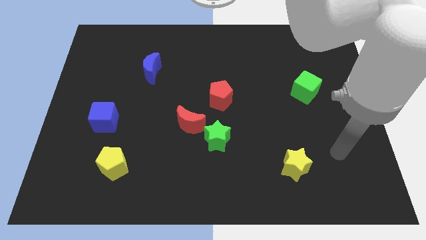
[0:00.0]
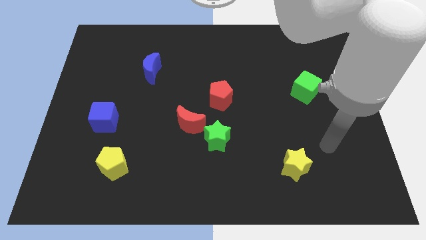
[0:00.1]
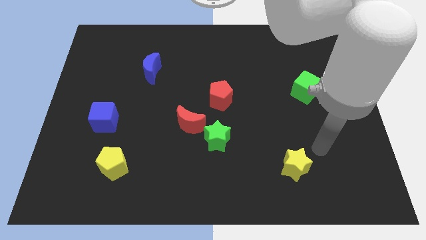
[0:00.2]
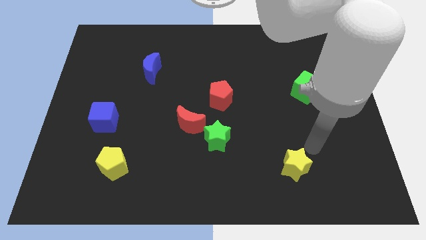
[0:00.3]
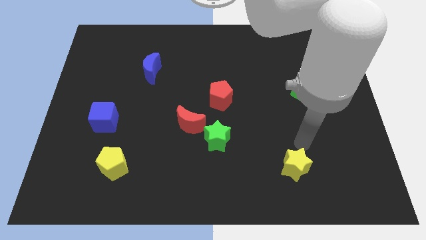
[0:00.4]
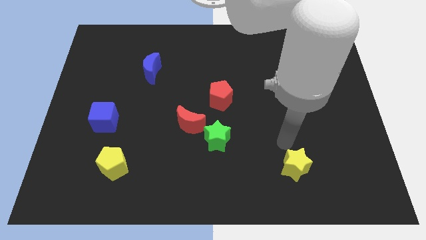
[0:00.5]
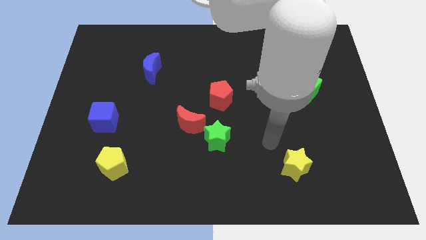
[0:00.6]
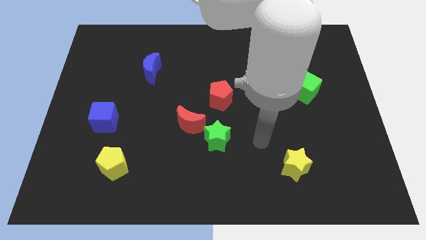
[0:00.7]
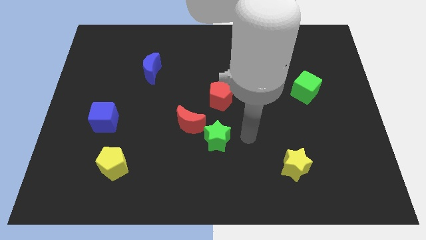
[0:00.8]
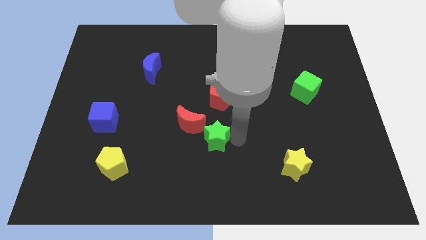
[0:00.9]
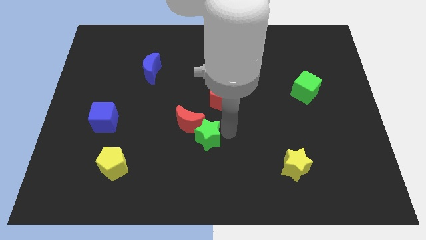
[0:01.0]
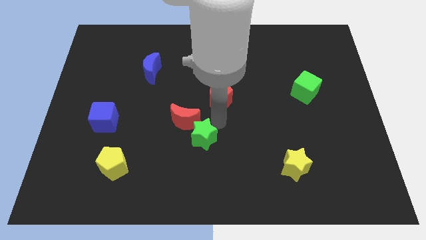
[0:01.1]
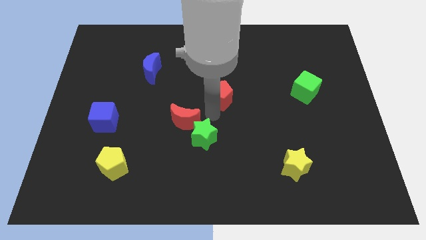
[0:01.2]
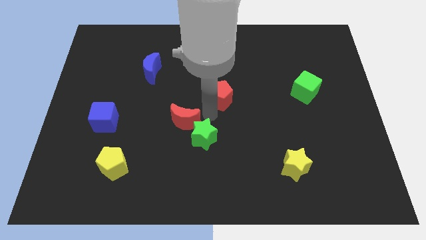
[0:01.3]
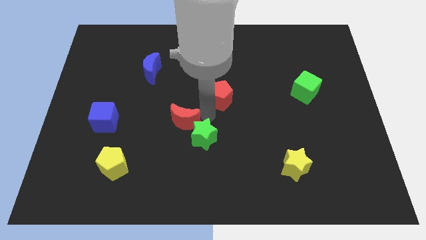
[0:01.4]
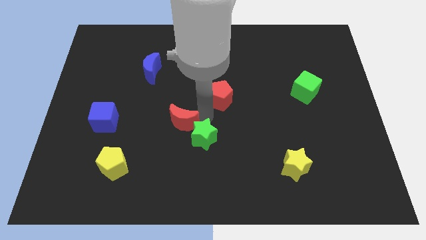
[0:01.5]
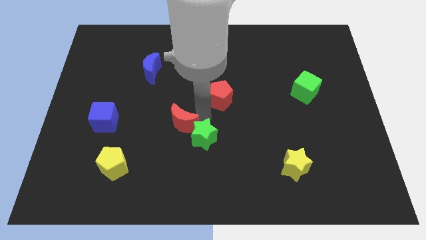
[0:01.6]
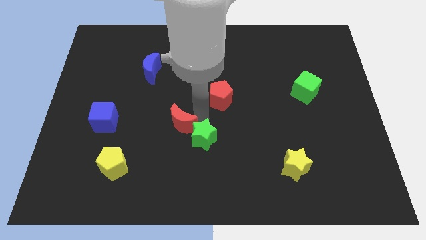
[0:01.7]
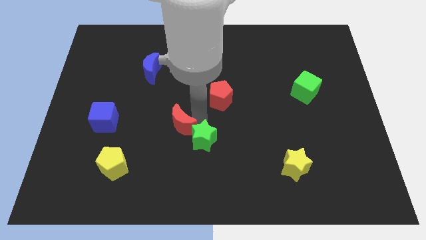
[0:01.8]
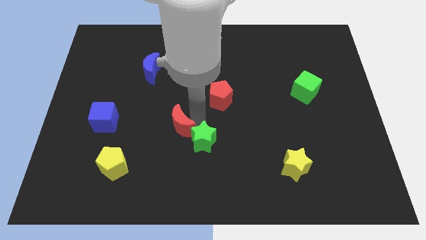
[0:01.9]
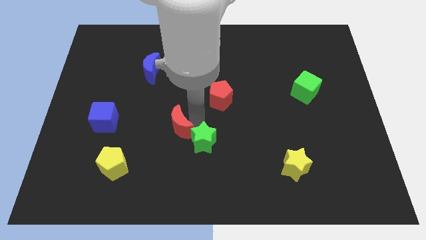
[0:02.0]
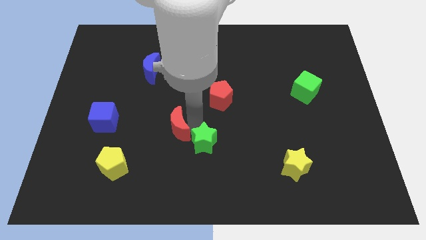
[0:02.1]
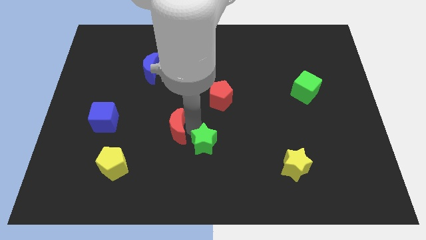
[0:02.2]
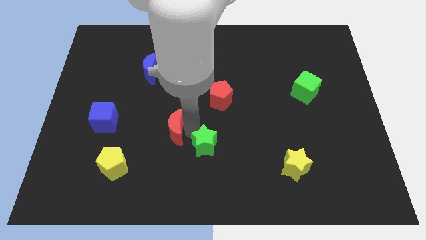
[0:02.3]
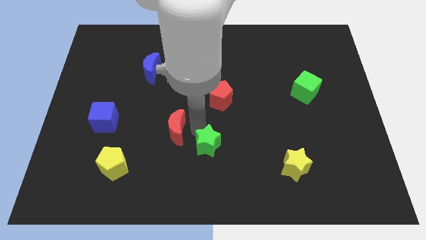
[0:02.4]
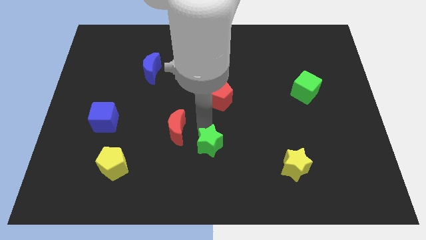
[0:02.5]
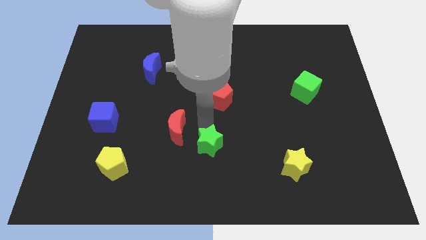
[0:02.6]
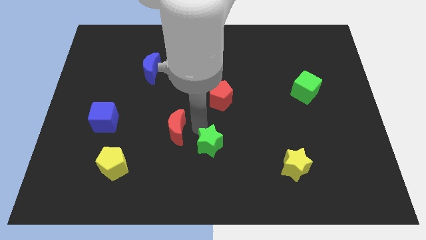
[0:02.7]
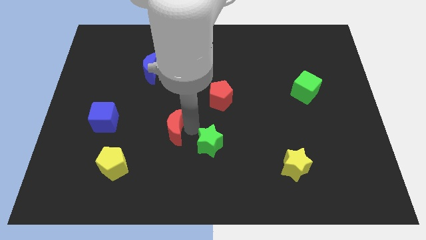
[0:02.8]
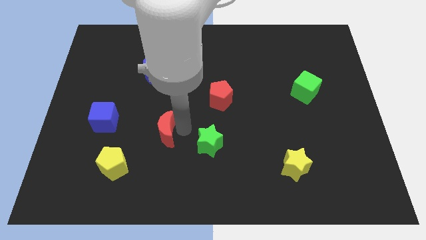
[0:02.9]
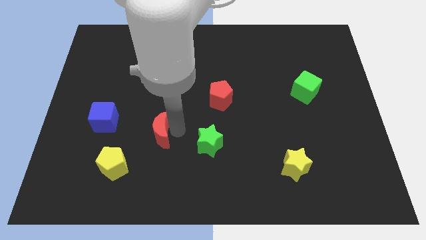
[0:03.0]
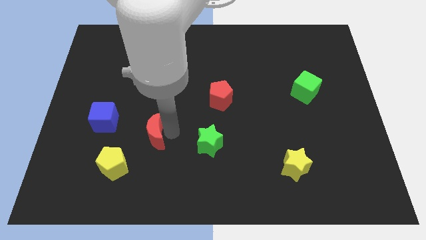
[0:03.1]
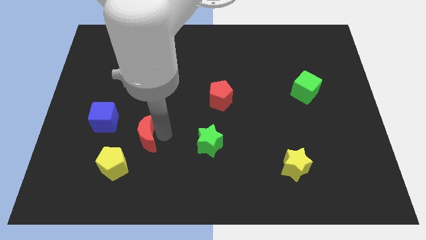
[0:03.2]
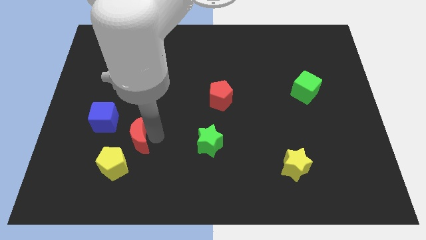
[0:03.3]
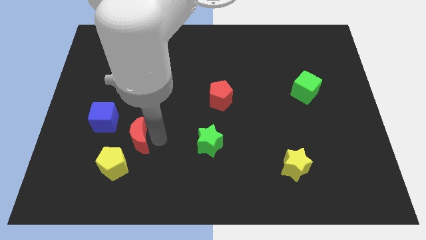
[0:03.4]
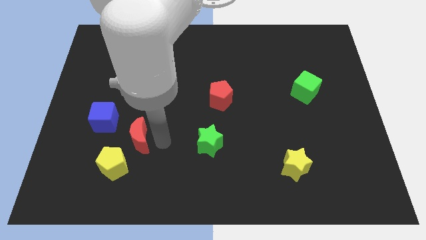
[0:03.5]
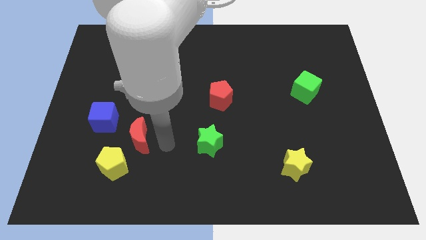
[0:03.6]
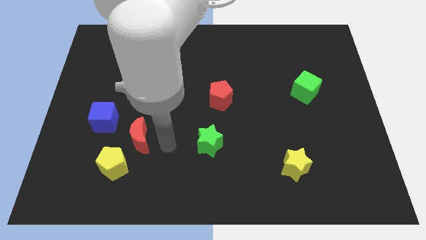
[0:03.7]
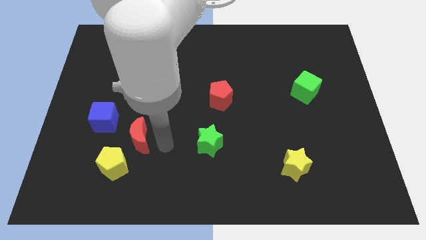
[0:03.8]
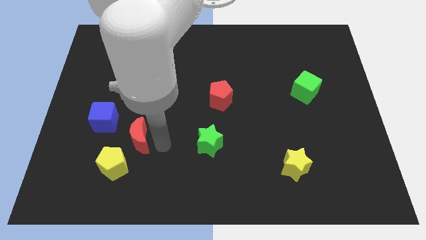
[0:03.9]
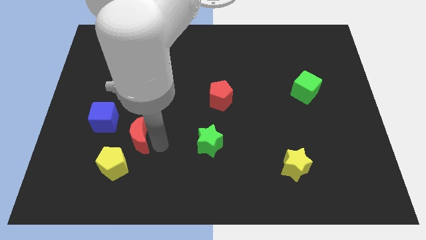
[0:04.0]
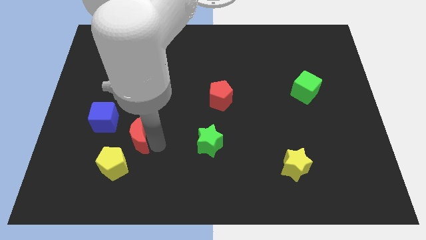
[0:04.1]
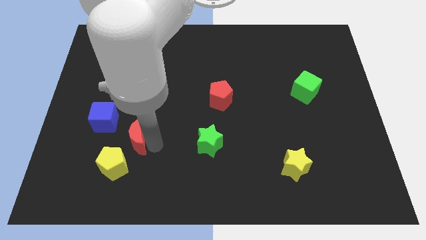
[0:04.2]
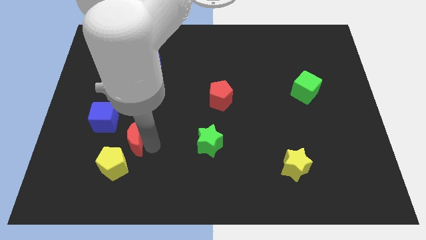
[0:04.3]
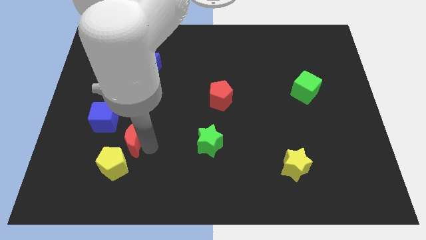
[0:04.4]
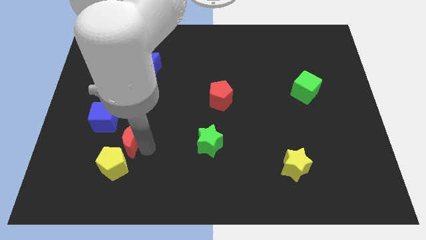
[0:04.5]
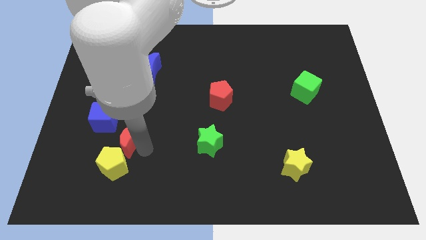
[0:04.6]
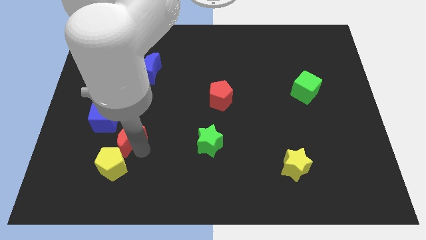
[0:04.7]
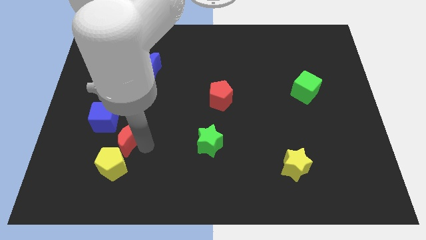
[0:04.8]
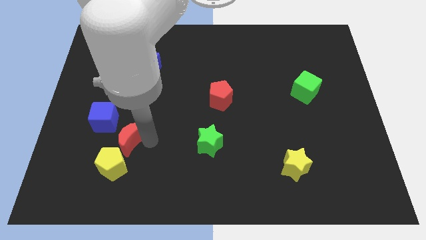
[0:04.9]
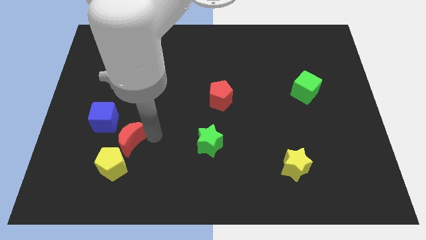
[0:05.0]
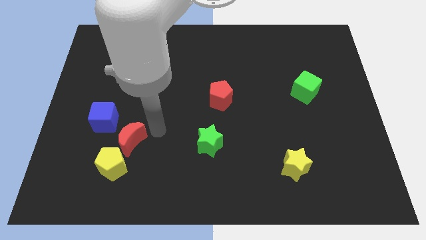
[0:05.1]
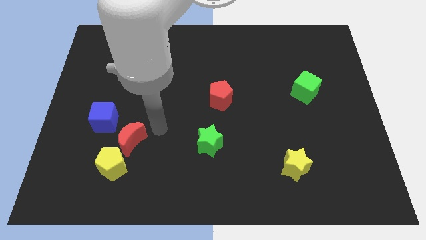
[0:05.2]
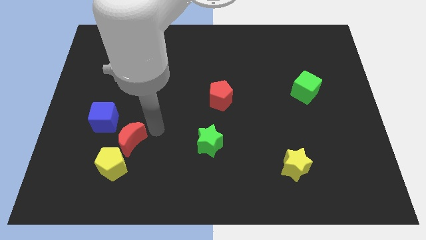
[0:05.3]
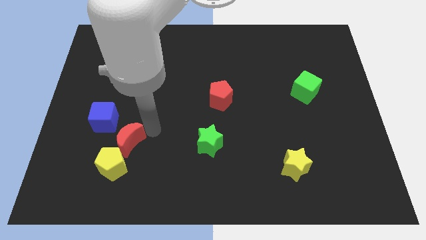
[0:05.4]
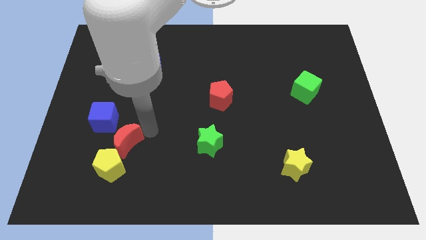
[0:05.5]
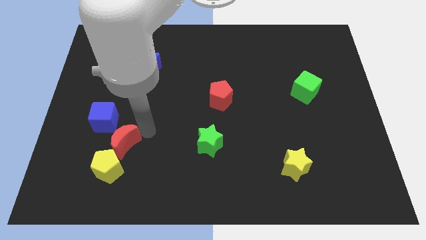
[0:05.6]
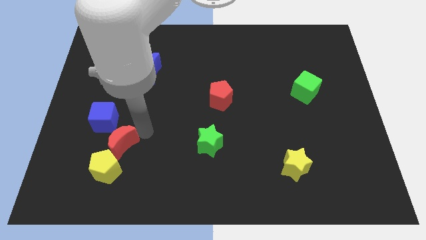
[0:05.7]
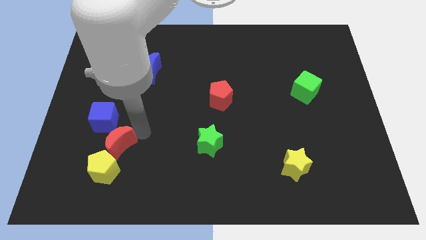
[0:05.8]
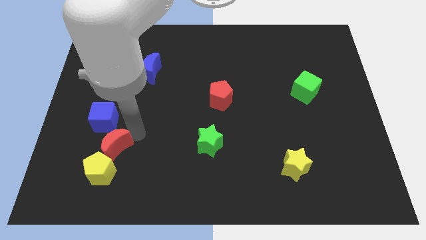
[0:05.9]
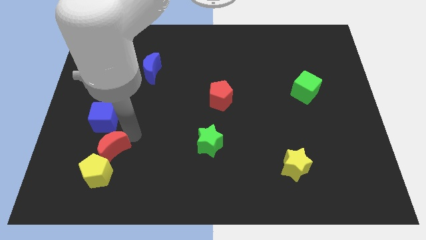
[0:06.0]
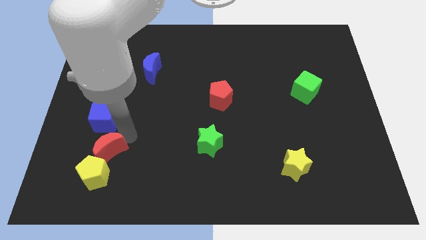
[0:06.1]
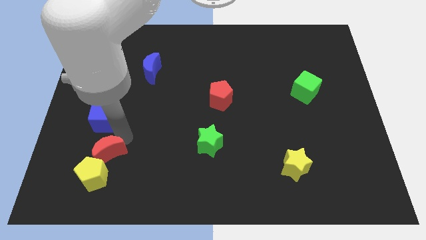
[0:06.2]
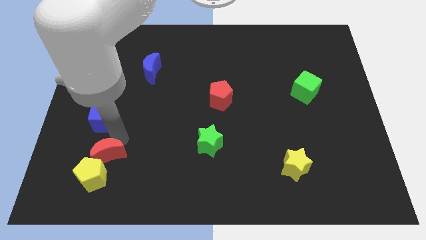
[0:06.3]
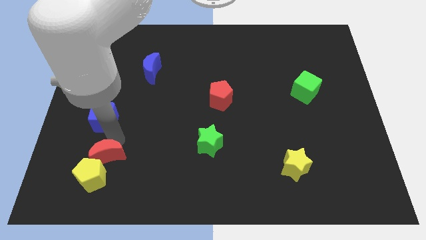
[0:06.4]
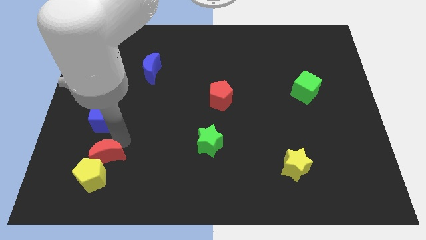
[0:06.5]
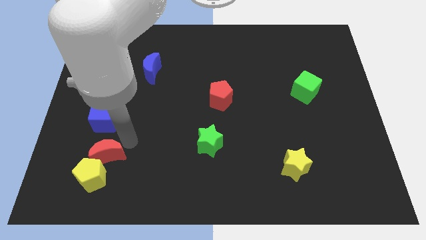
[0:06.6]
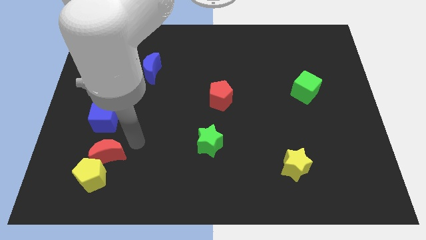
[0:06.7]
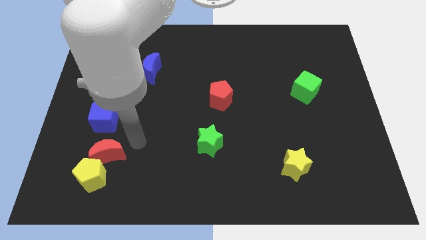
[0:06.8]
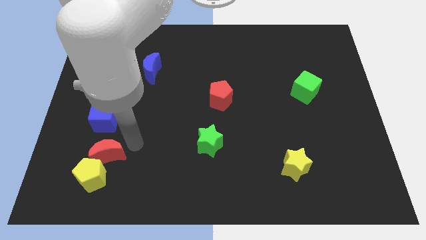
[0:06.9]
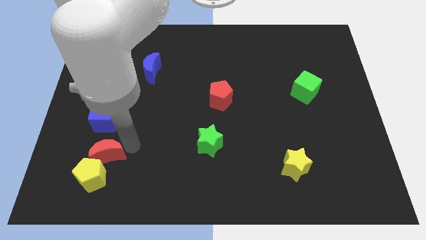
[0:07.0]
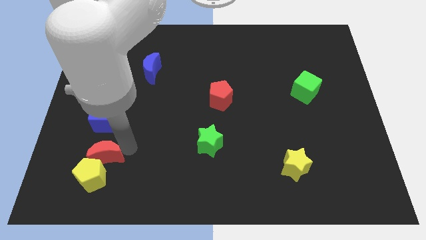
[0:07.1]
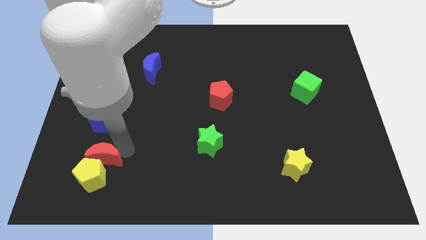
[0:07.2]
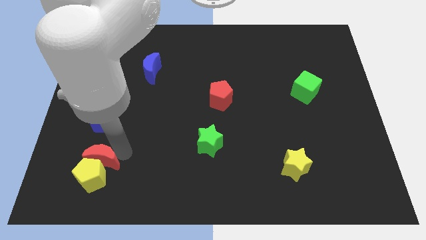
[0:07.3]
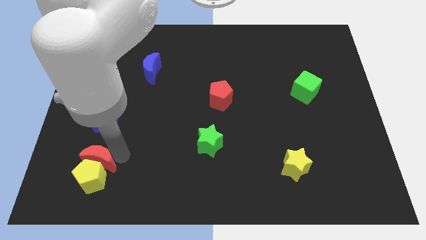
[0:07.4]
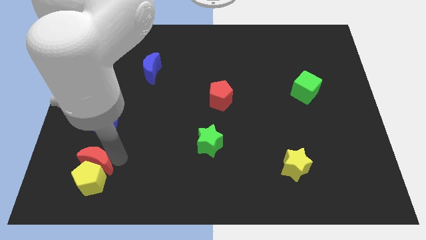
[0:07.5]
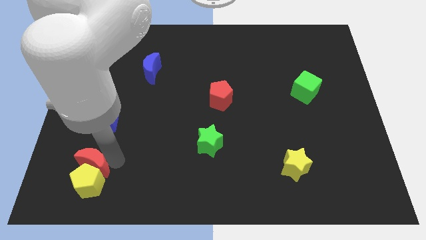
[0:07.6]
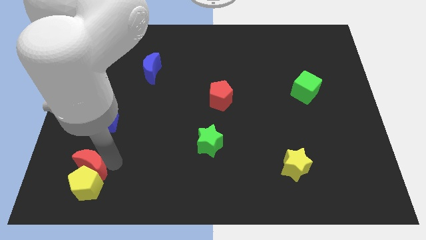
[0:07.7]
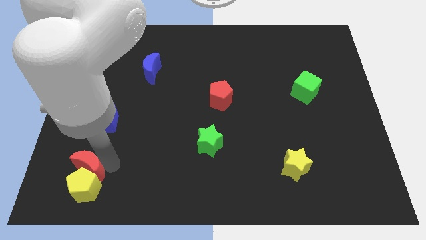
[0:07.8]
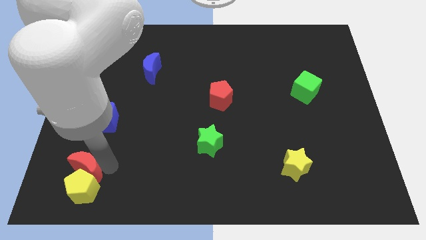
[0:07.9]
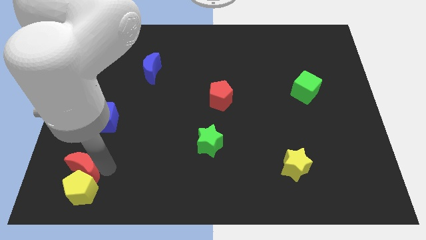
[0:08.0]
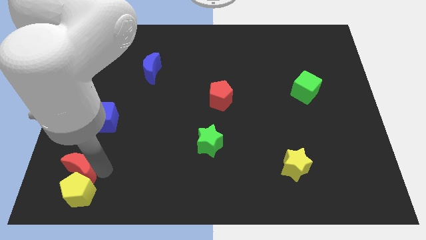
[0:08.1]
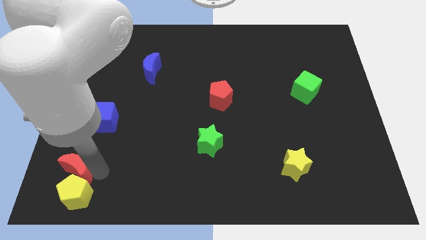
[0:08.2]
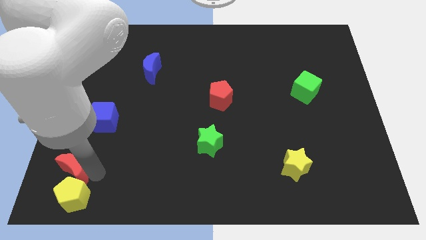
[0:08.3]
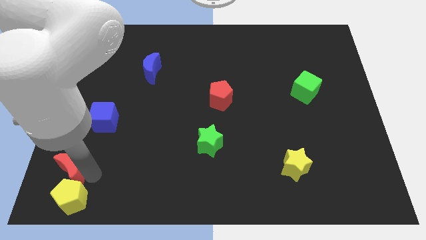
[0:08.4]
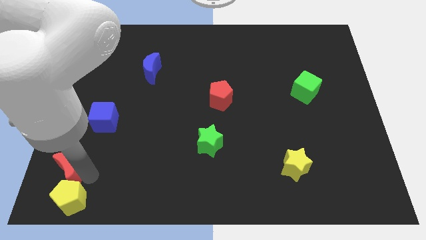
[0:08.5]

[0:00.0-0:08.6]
slide the red moon to the lower left corner
